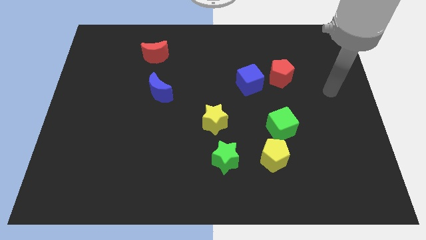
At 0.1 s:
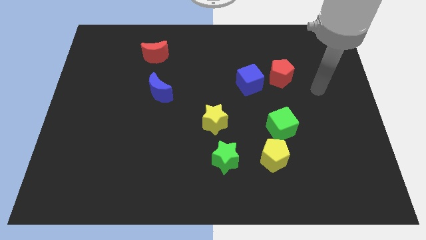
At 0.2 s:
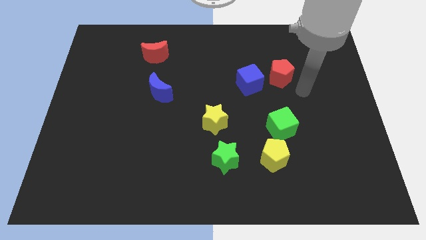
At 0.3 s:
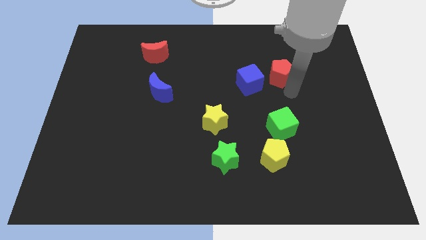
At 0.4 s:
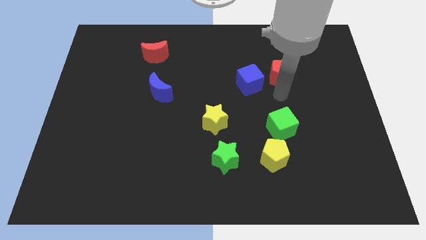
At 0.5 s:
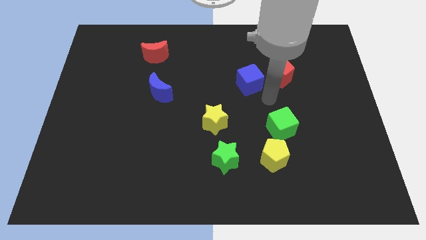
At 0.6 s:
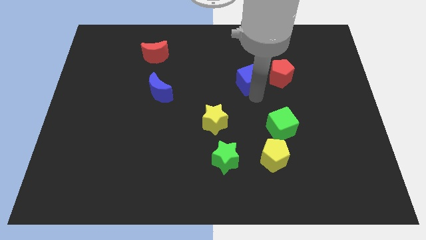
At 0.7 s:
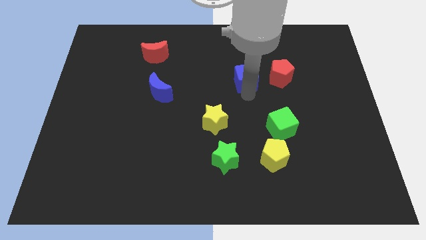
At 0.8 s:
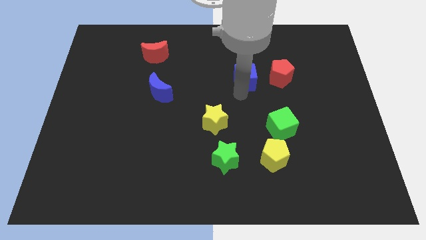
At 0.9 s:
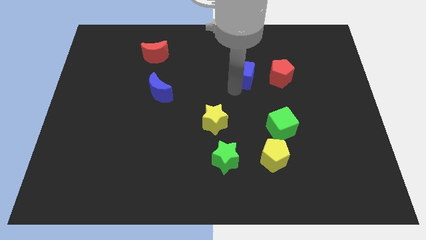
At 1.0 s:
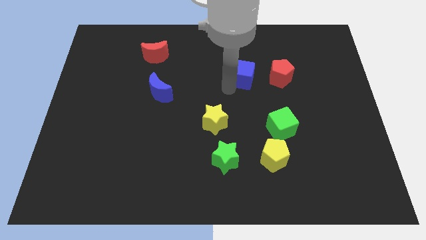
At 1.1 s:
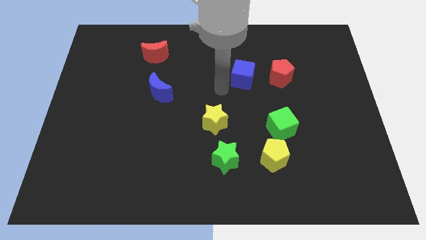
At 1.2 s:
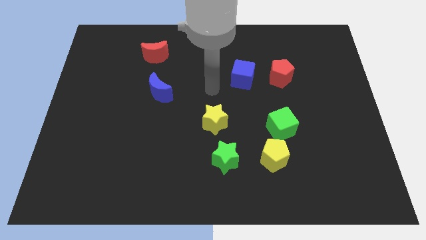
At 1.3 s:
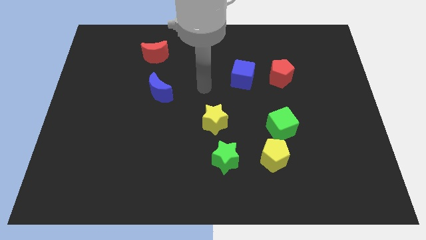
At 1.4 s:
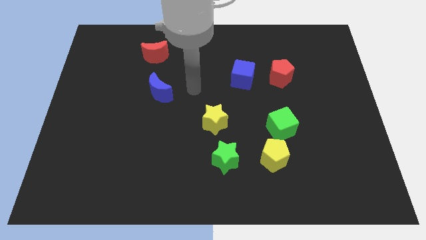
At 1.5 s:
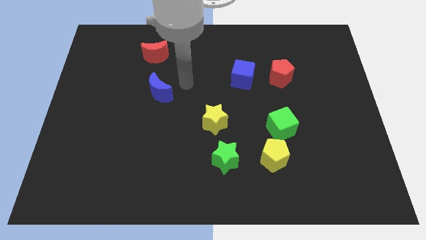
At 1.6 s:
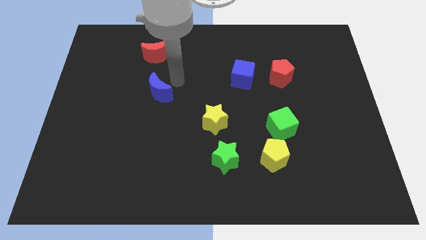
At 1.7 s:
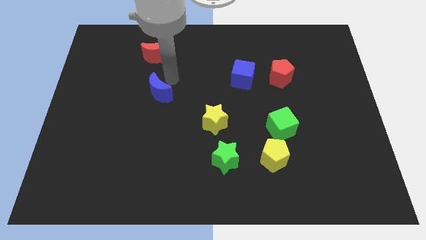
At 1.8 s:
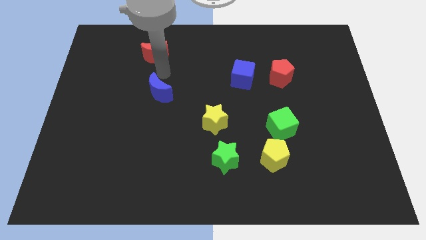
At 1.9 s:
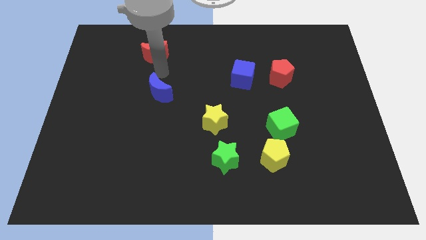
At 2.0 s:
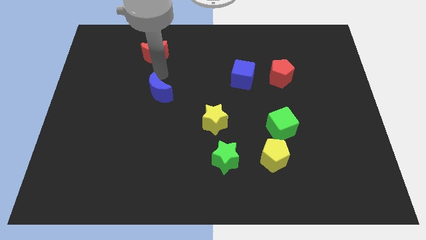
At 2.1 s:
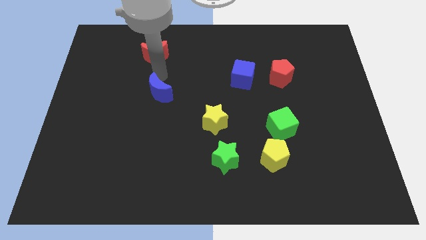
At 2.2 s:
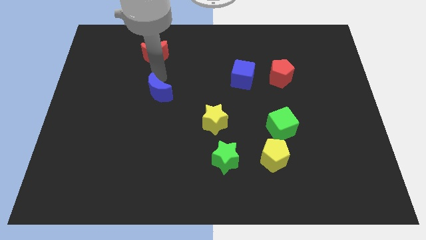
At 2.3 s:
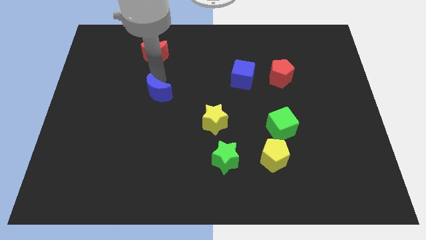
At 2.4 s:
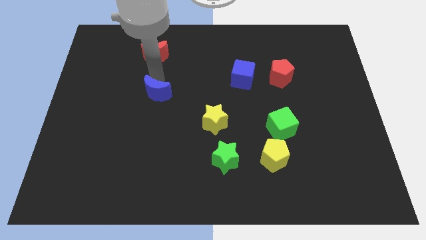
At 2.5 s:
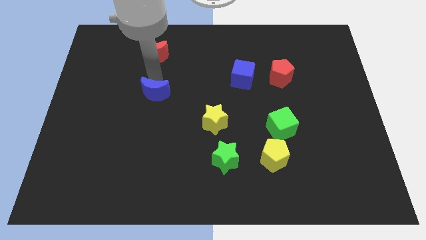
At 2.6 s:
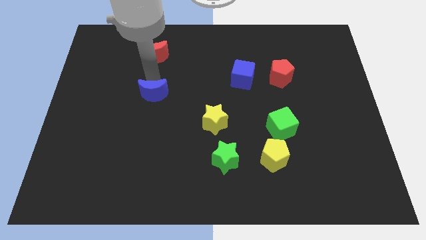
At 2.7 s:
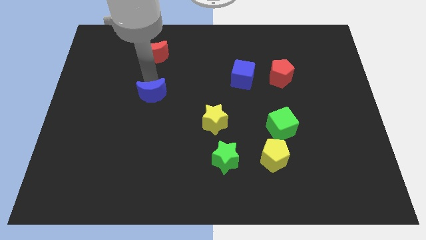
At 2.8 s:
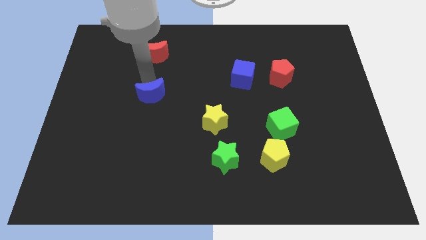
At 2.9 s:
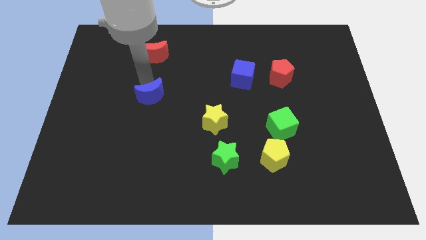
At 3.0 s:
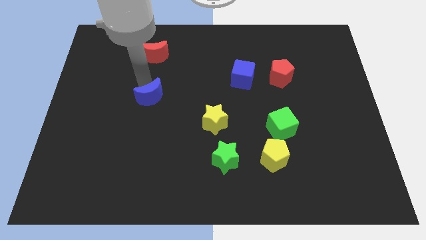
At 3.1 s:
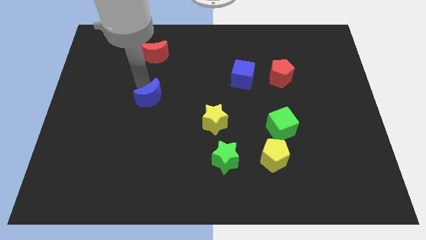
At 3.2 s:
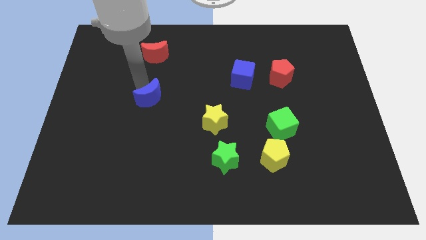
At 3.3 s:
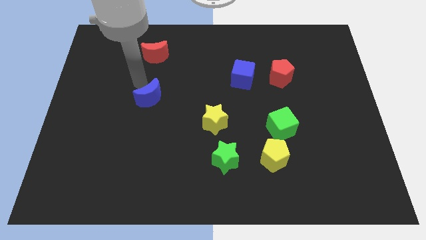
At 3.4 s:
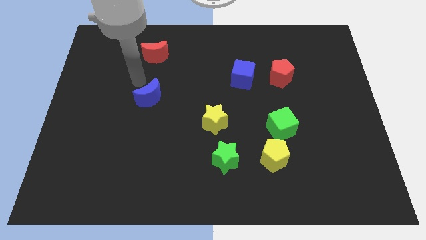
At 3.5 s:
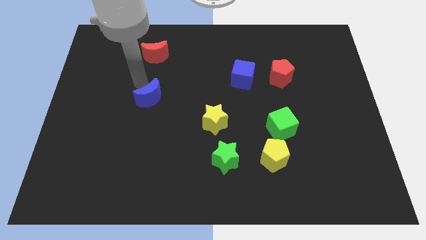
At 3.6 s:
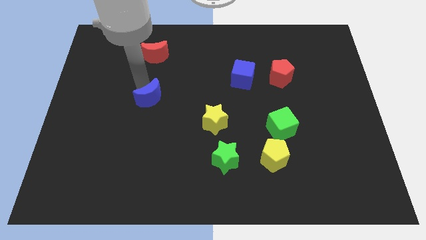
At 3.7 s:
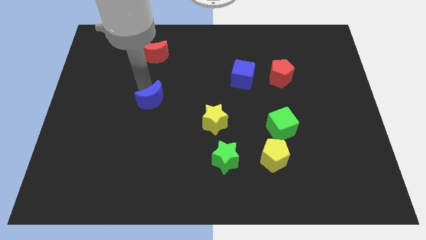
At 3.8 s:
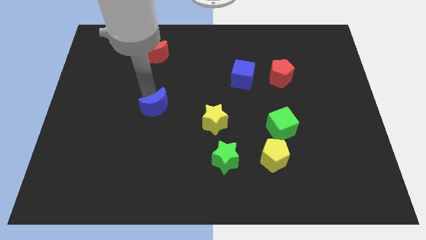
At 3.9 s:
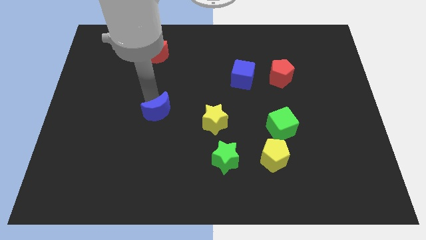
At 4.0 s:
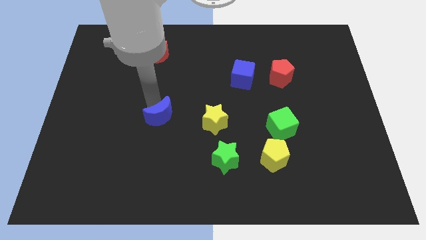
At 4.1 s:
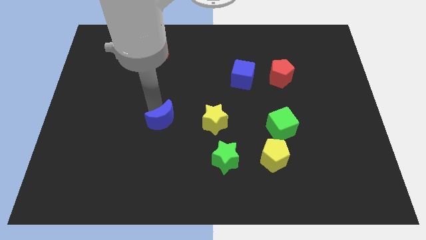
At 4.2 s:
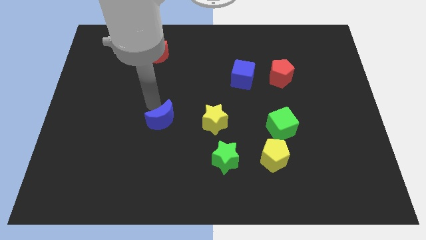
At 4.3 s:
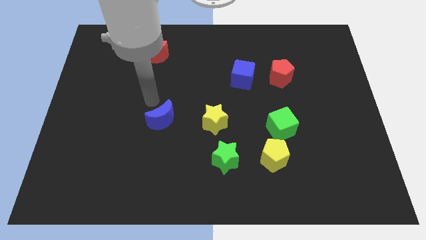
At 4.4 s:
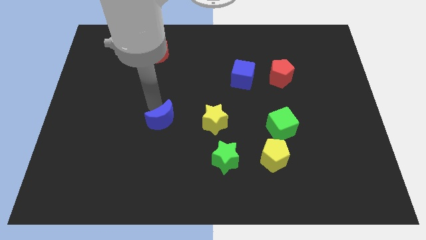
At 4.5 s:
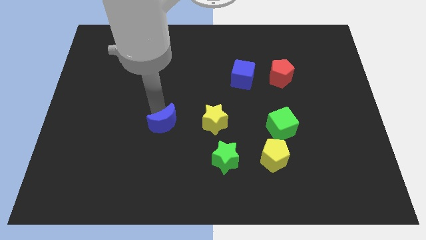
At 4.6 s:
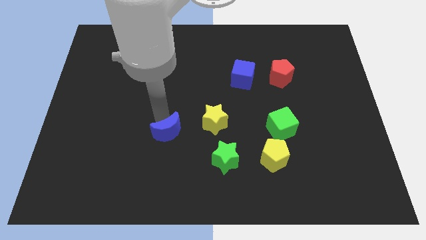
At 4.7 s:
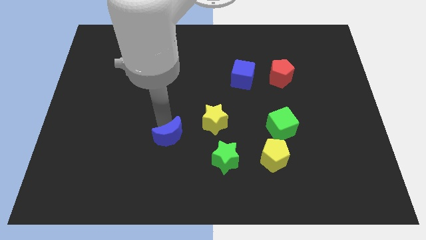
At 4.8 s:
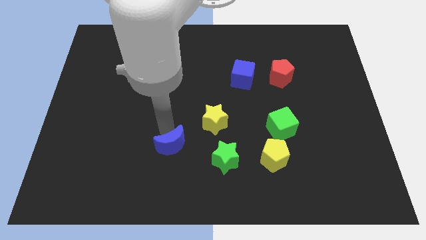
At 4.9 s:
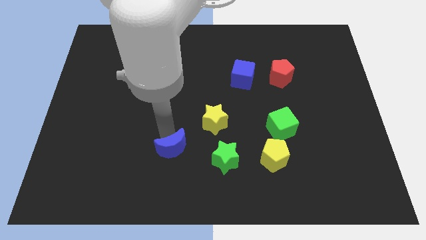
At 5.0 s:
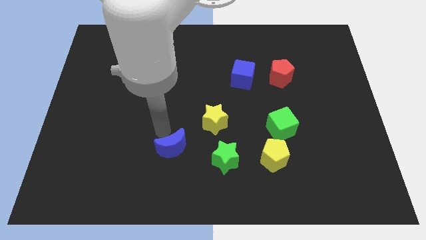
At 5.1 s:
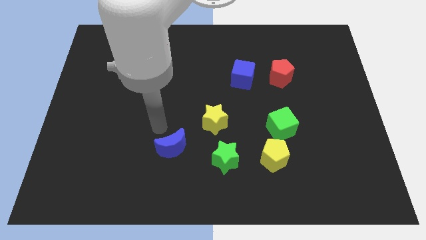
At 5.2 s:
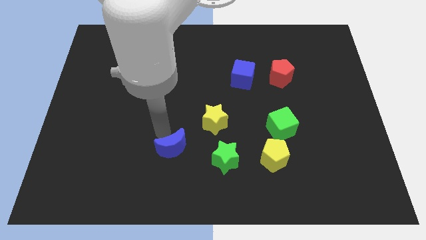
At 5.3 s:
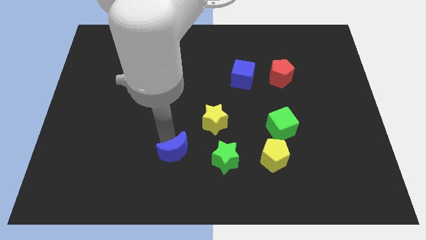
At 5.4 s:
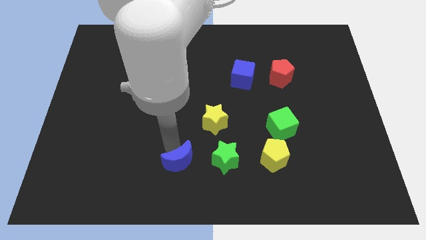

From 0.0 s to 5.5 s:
push the blue moon to the bottom

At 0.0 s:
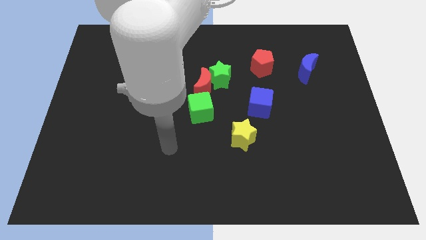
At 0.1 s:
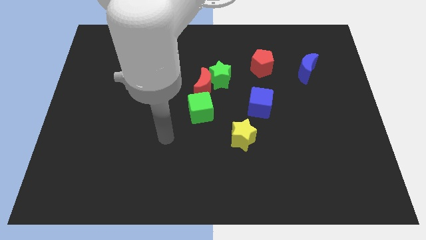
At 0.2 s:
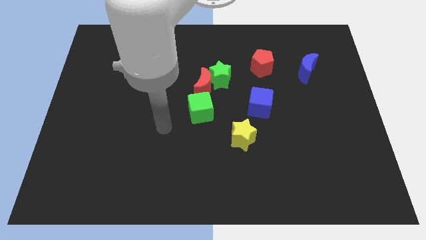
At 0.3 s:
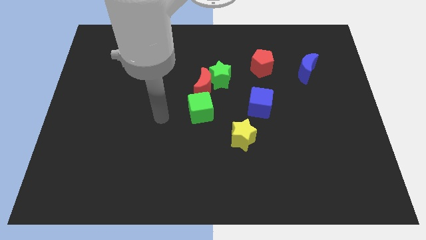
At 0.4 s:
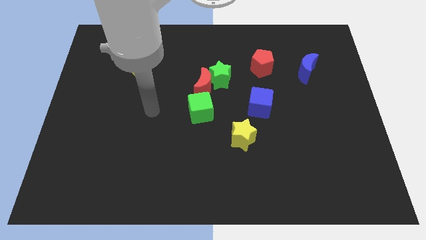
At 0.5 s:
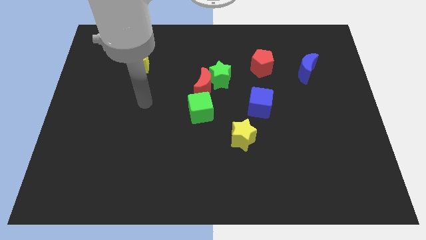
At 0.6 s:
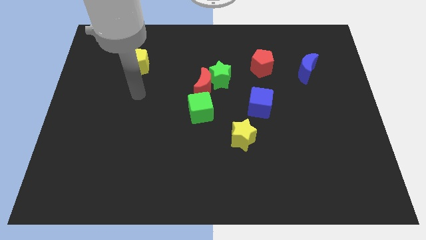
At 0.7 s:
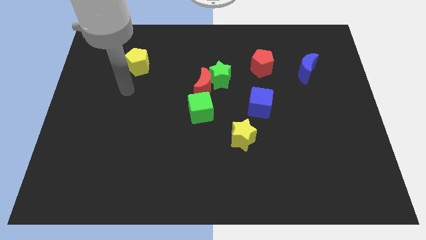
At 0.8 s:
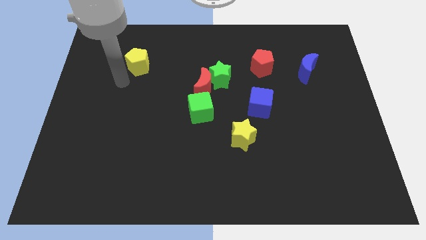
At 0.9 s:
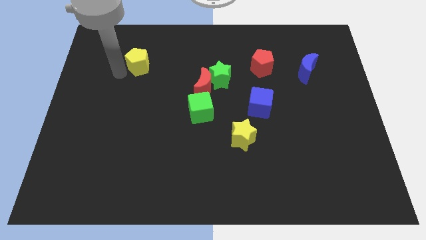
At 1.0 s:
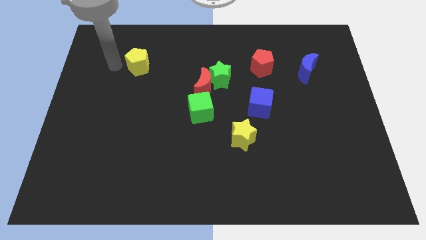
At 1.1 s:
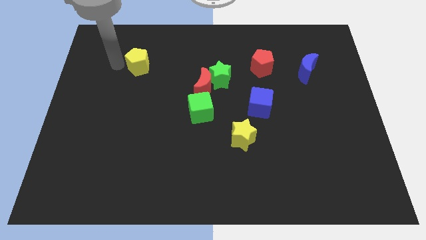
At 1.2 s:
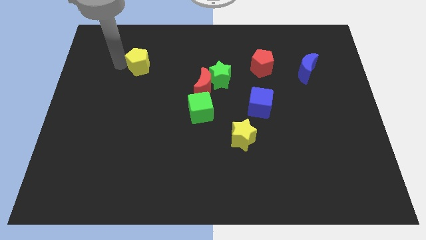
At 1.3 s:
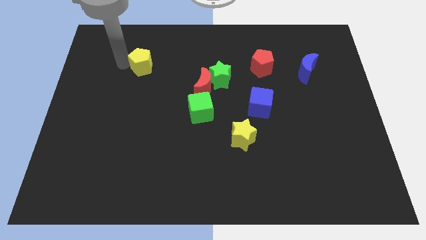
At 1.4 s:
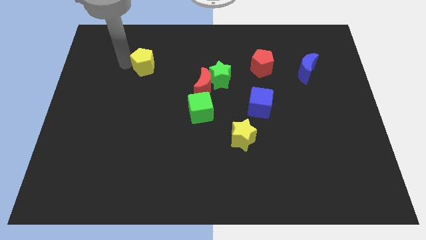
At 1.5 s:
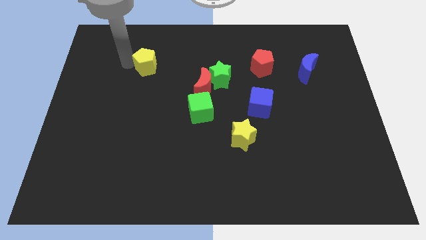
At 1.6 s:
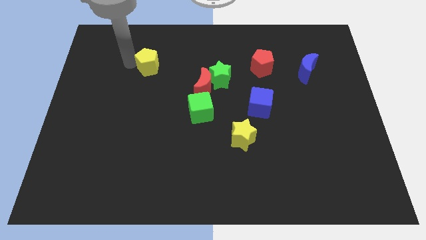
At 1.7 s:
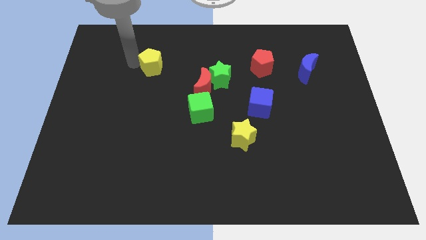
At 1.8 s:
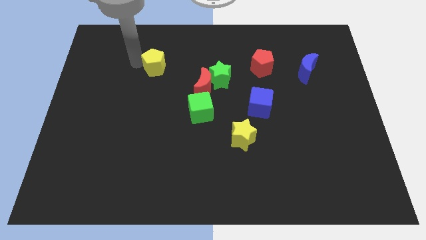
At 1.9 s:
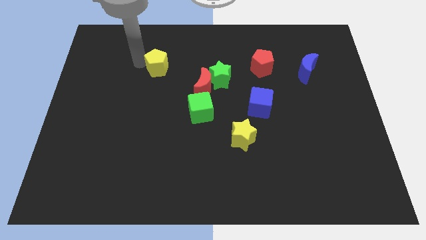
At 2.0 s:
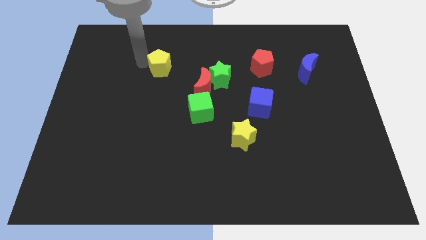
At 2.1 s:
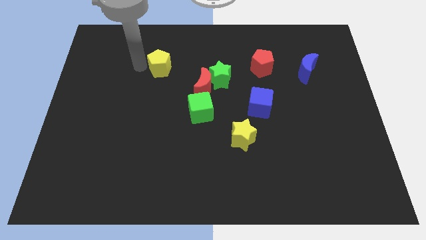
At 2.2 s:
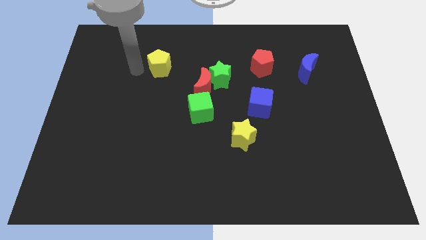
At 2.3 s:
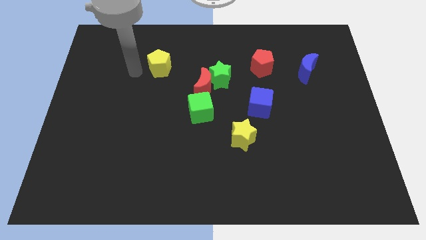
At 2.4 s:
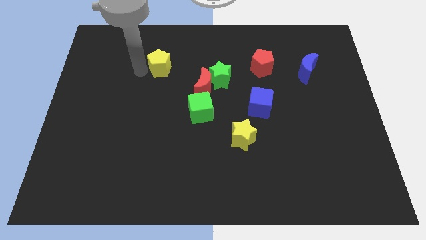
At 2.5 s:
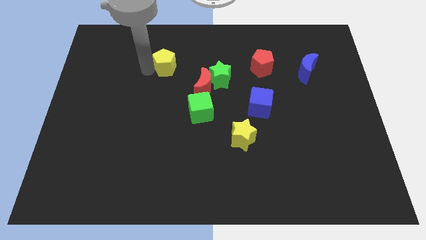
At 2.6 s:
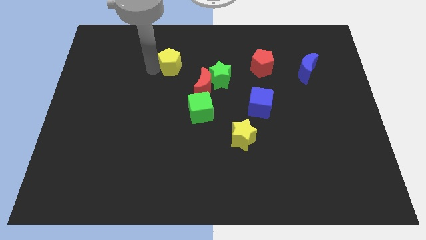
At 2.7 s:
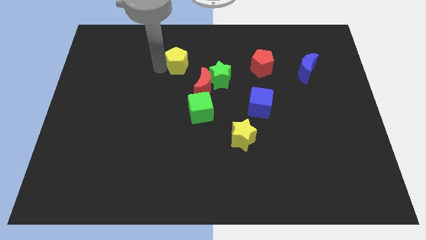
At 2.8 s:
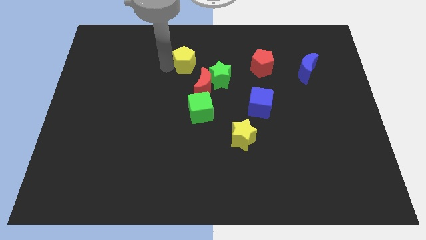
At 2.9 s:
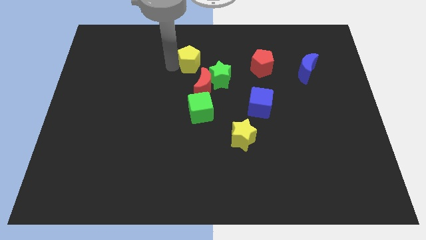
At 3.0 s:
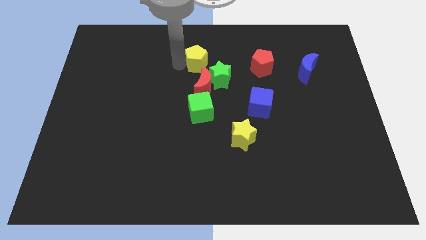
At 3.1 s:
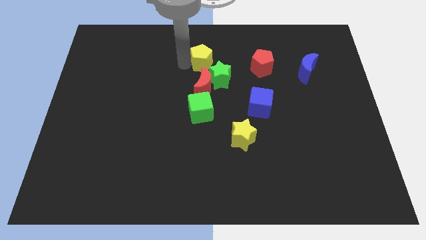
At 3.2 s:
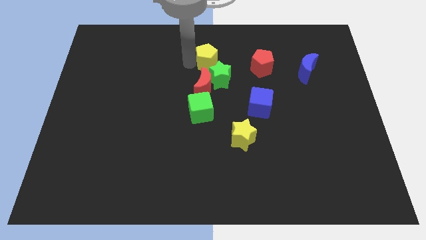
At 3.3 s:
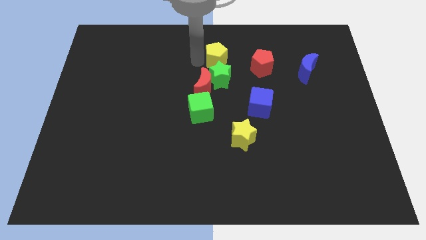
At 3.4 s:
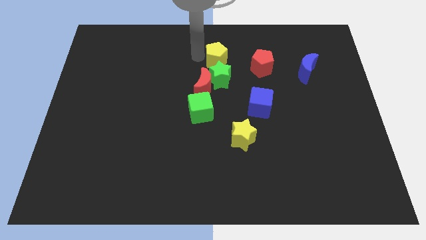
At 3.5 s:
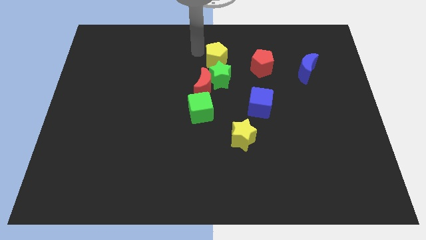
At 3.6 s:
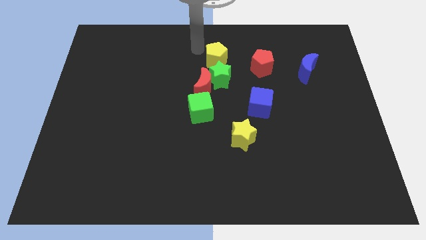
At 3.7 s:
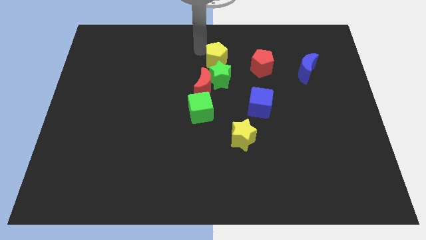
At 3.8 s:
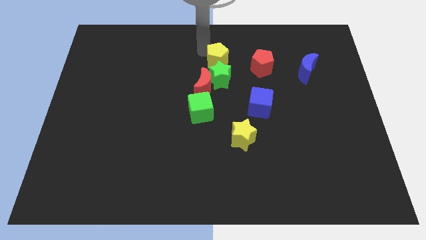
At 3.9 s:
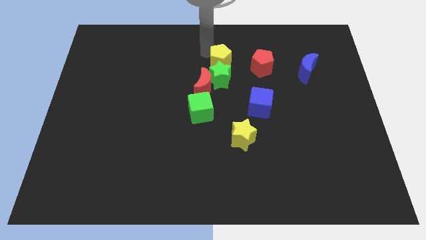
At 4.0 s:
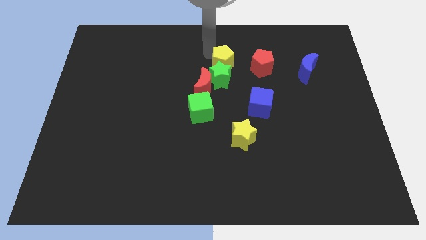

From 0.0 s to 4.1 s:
move the yellow pentagon to the center
